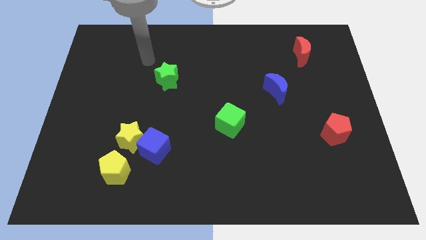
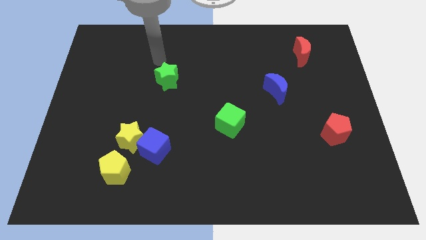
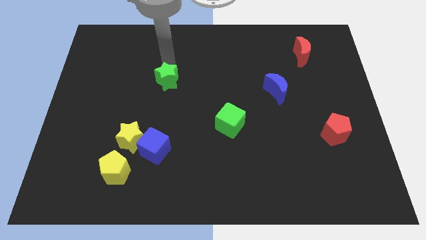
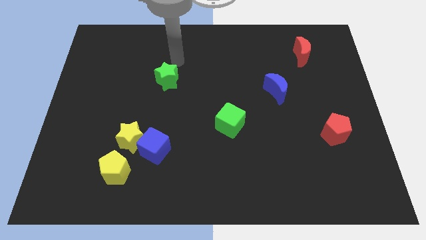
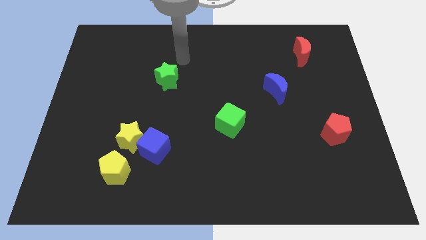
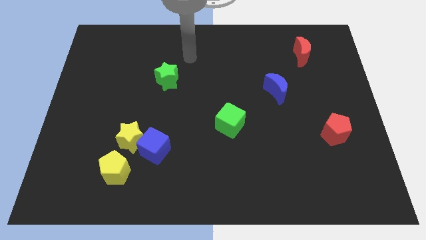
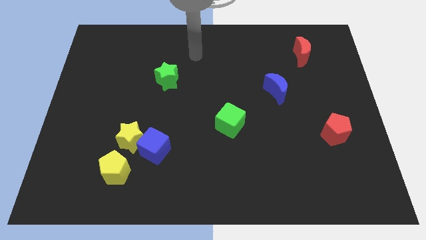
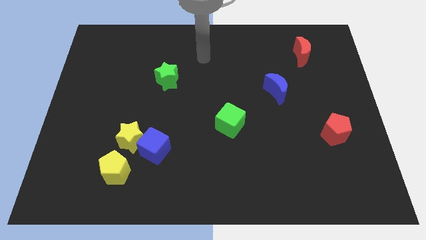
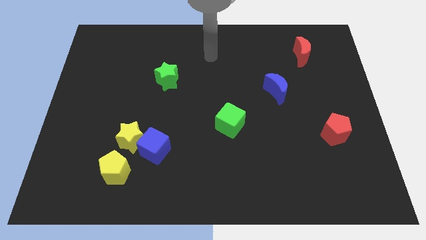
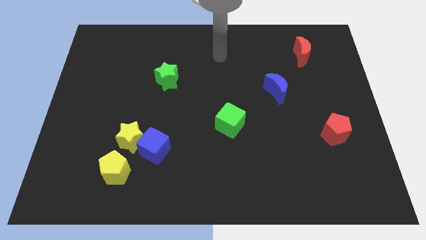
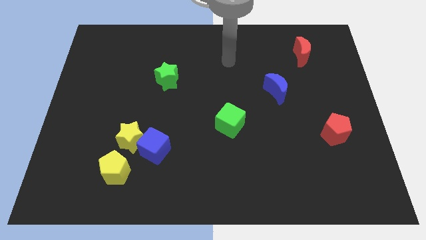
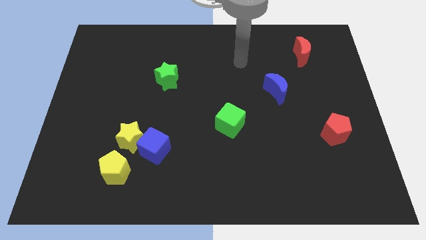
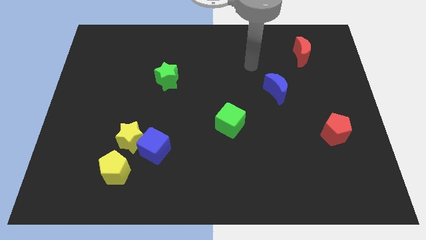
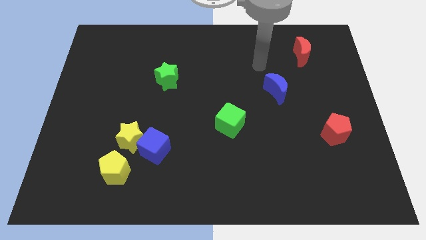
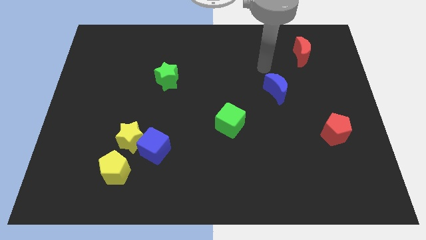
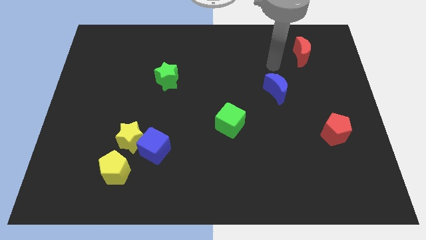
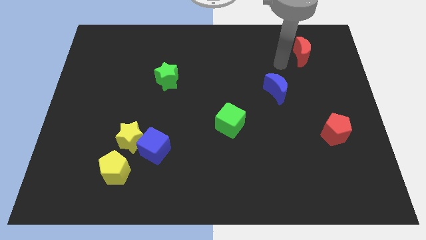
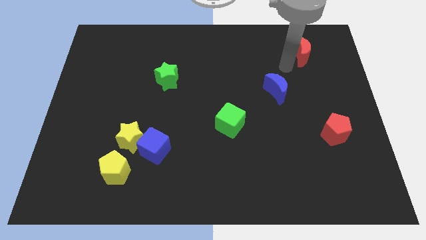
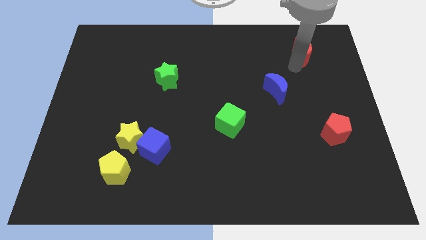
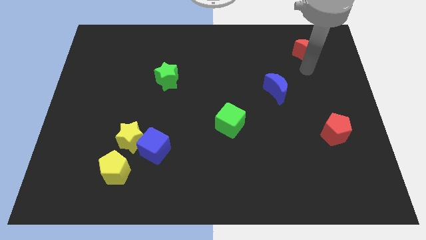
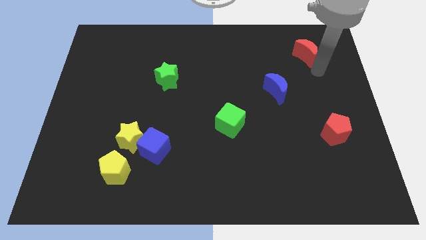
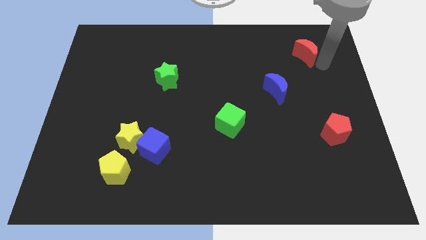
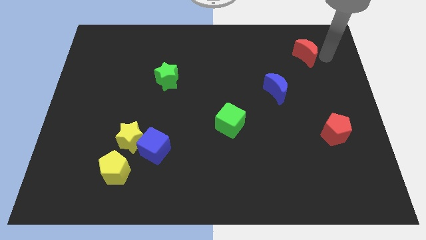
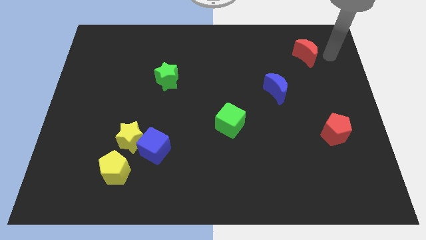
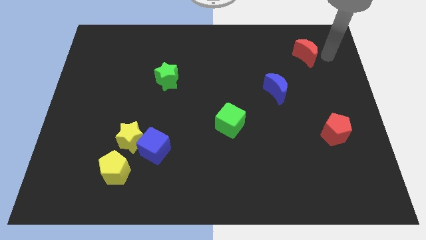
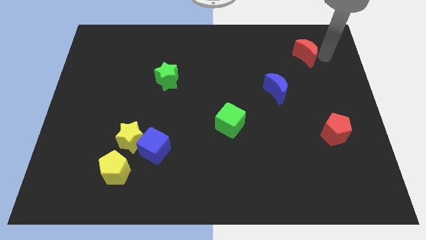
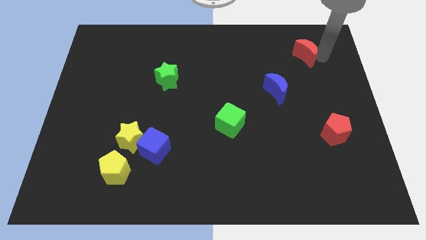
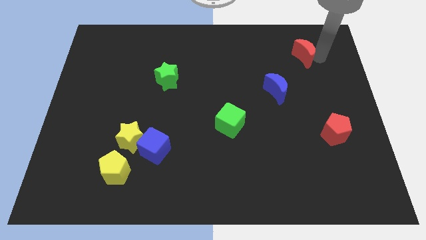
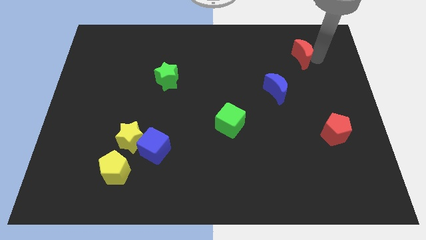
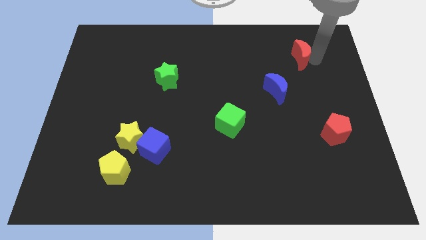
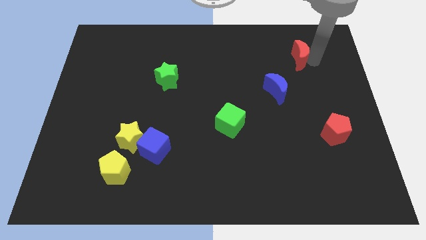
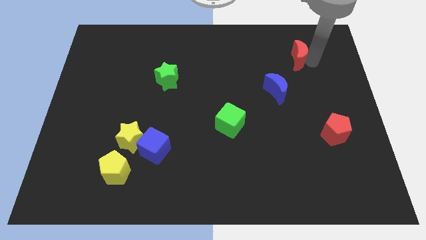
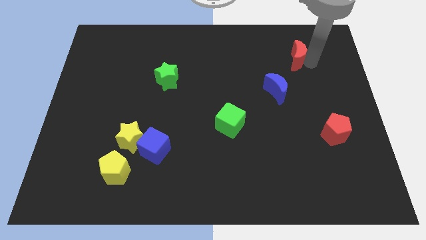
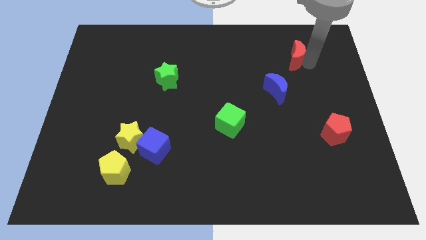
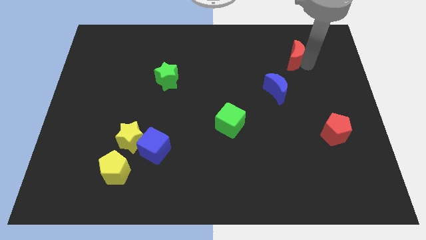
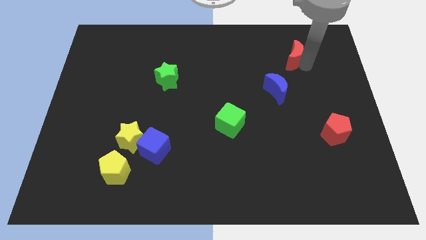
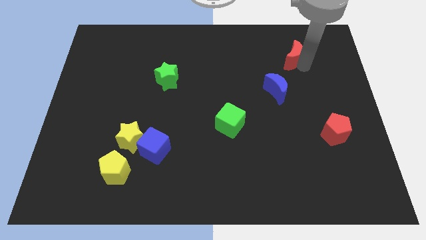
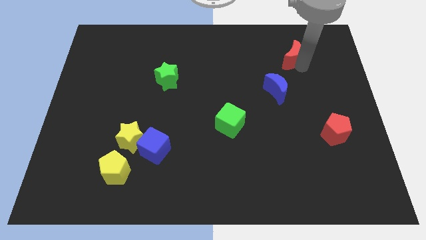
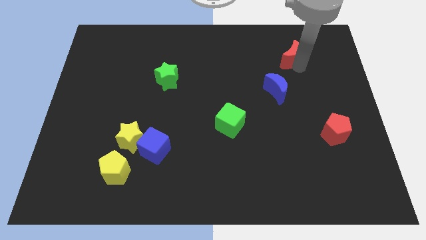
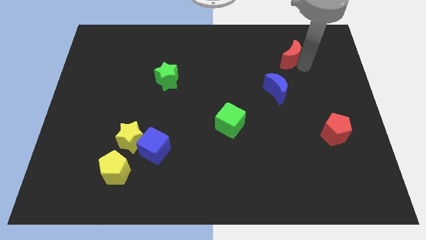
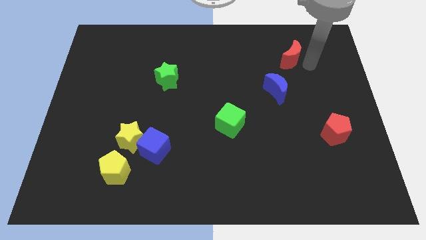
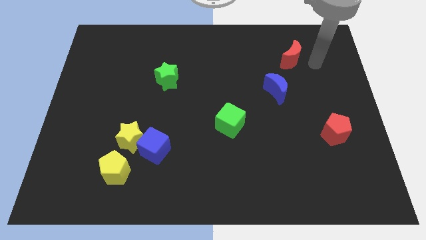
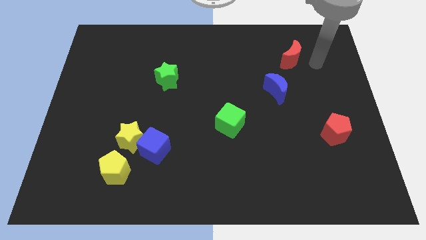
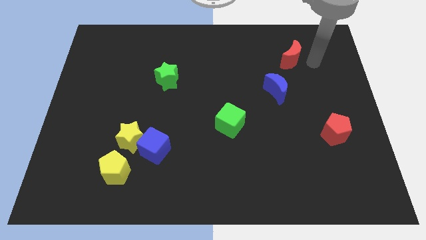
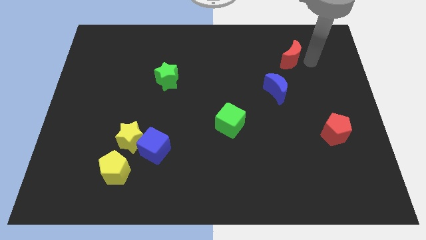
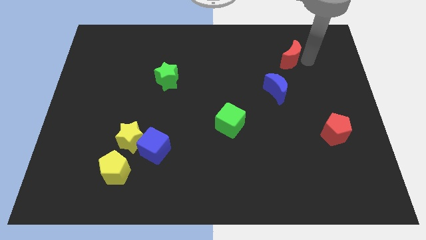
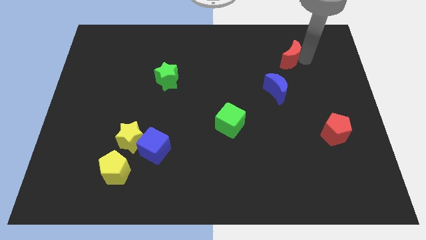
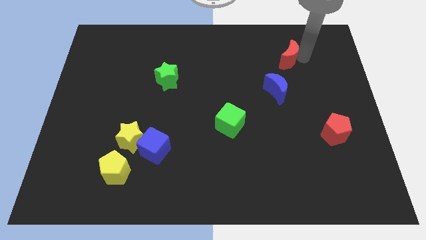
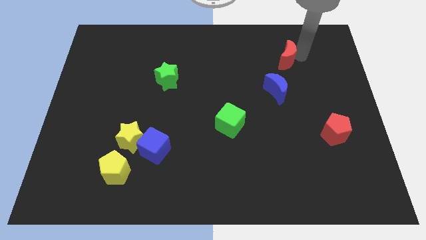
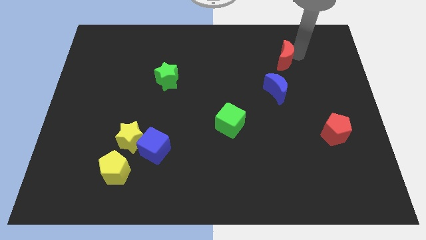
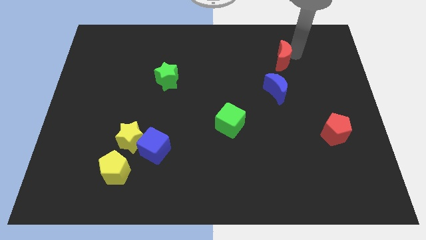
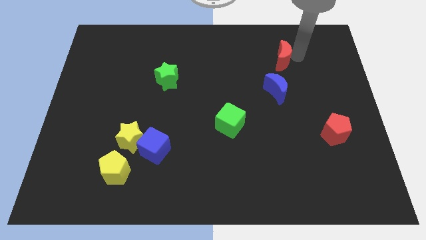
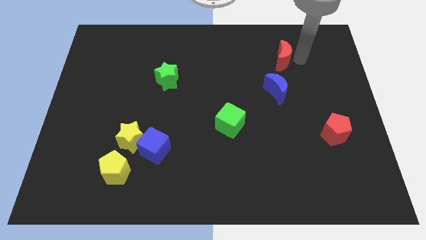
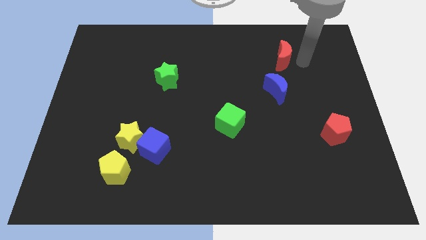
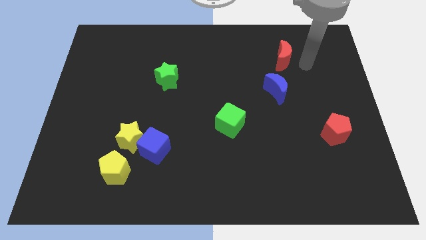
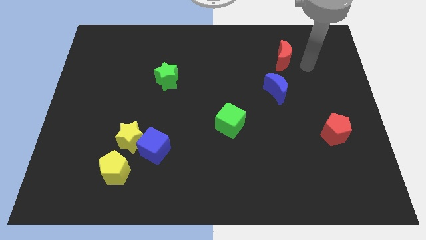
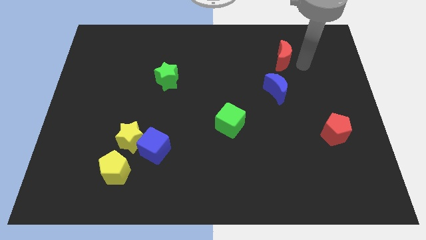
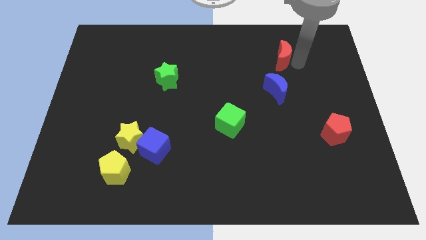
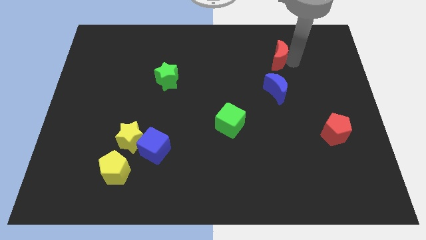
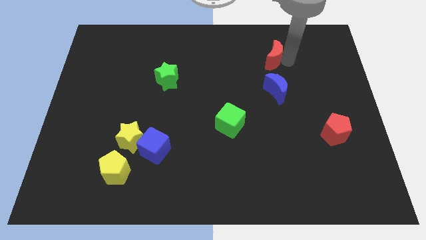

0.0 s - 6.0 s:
push the red moon left somewhat

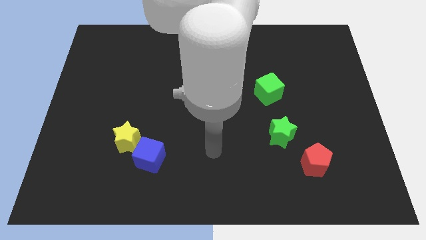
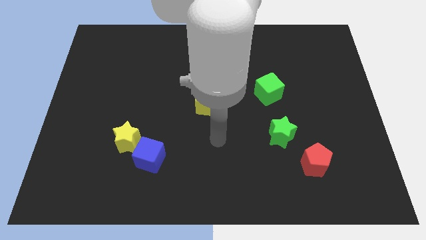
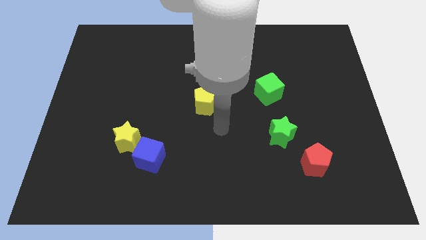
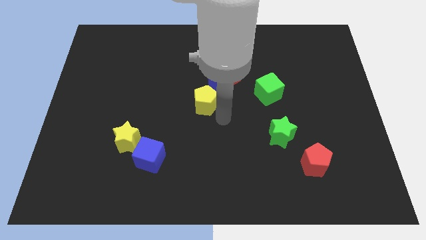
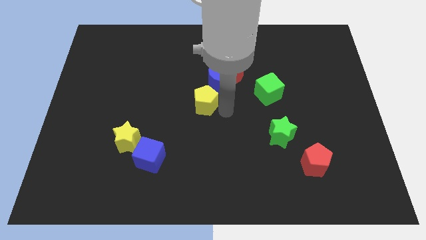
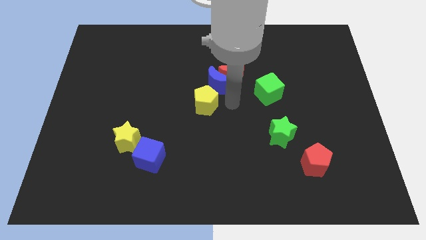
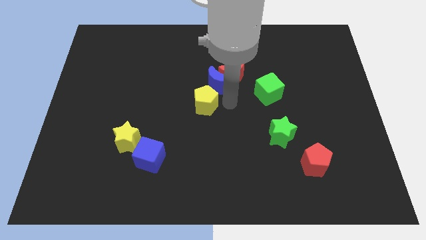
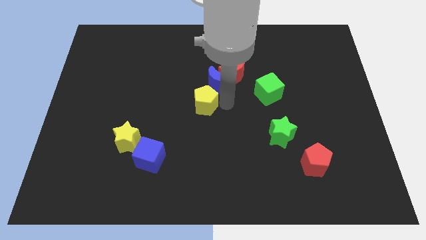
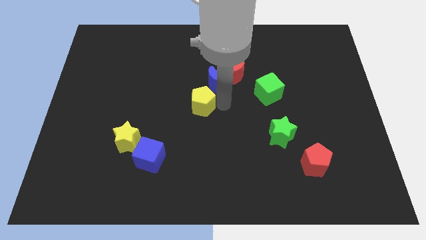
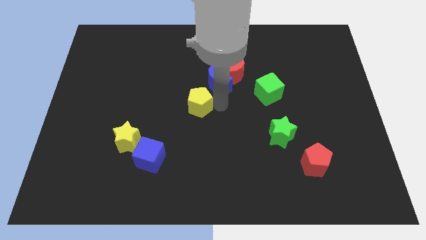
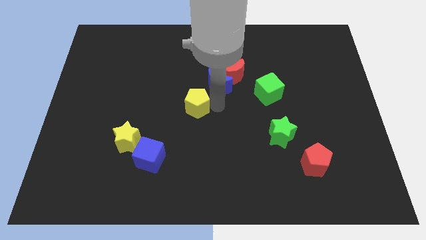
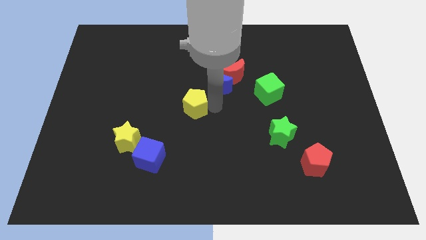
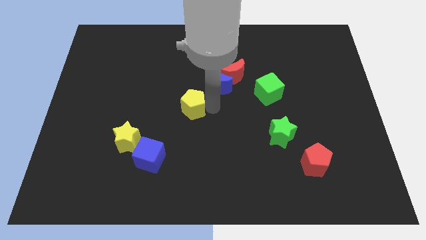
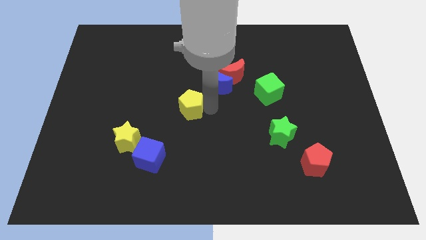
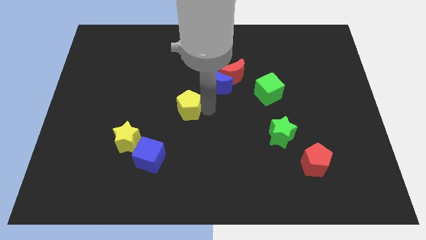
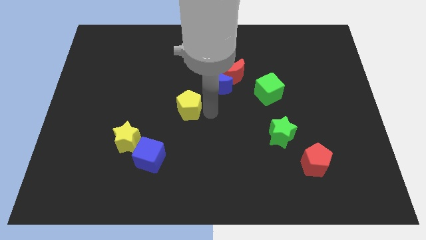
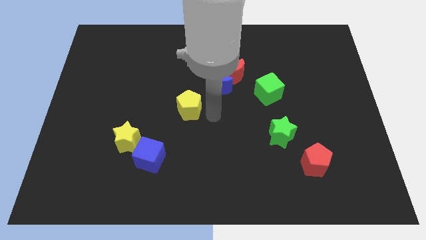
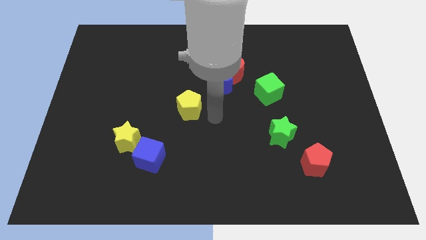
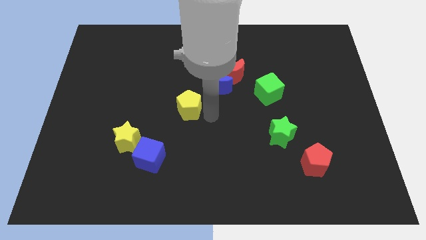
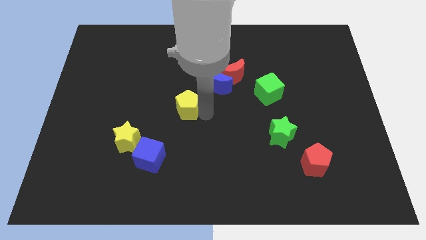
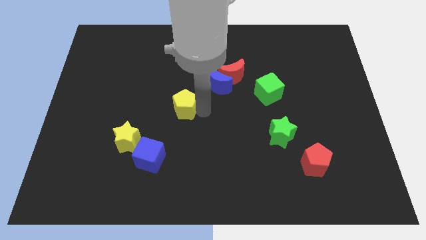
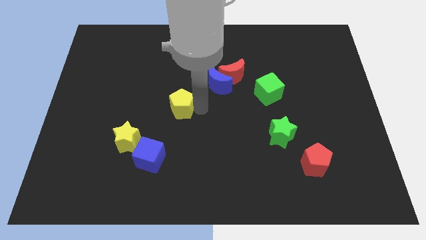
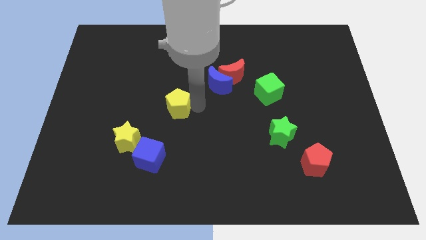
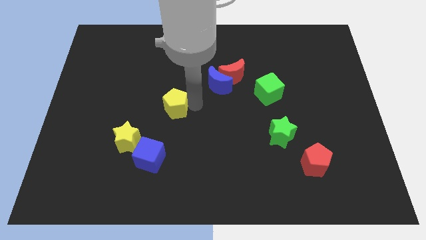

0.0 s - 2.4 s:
slightly move the yellow pentagon left
